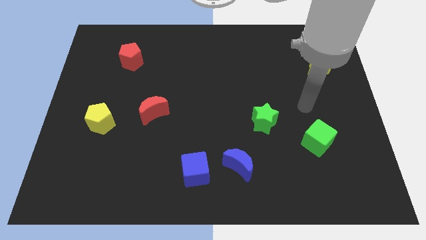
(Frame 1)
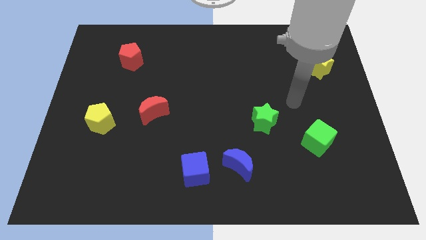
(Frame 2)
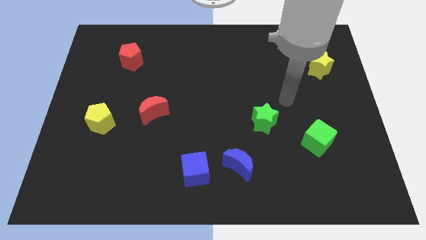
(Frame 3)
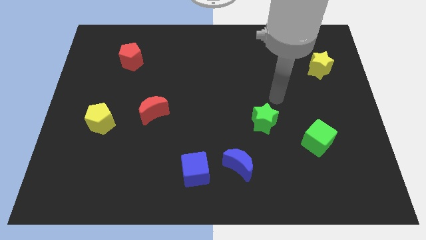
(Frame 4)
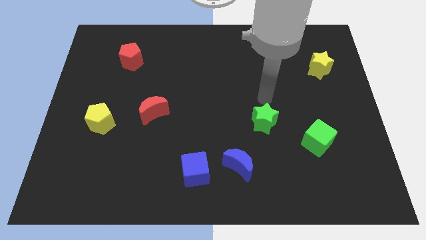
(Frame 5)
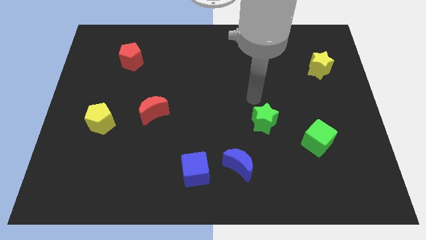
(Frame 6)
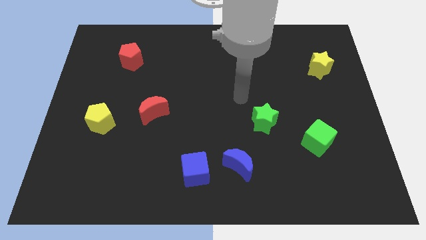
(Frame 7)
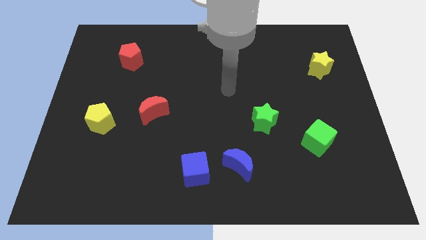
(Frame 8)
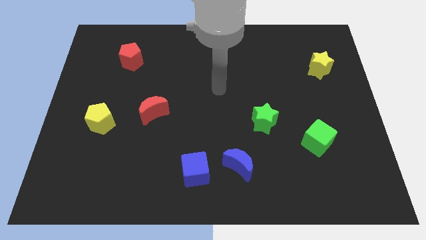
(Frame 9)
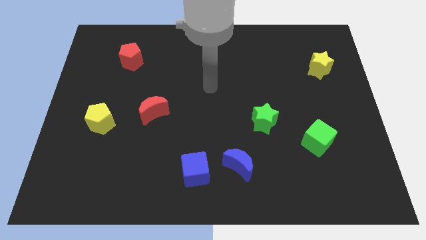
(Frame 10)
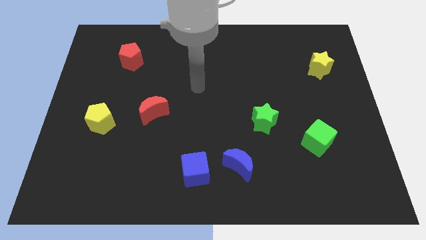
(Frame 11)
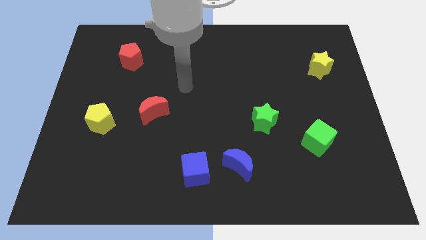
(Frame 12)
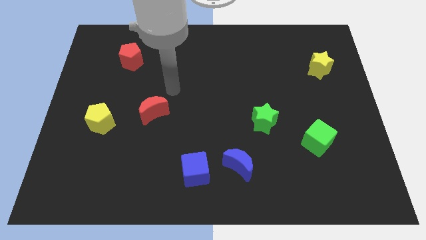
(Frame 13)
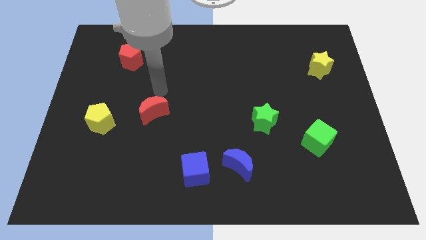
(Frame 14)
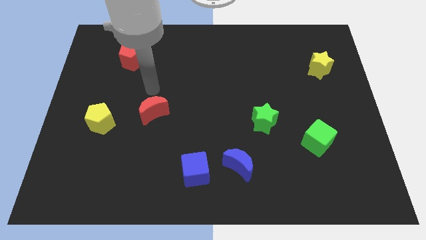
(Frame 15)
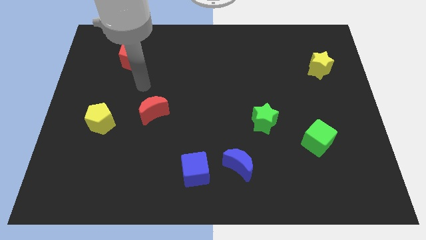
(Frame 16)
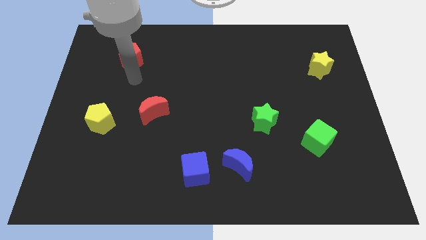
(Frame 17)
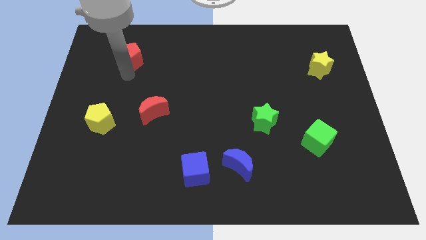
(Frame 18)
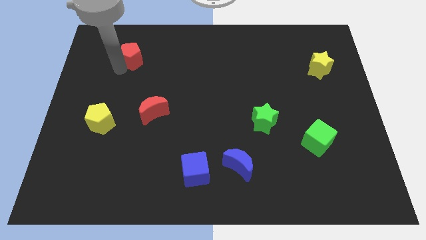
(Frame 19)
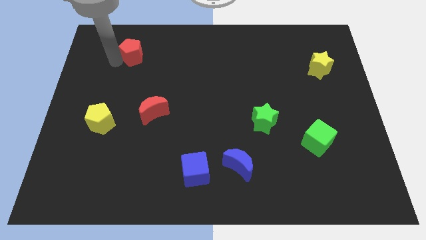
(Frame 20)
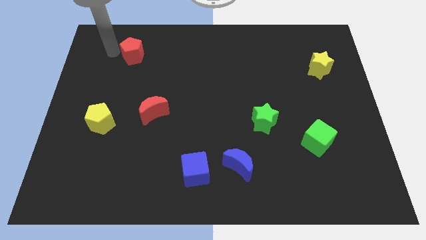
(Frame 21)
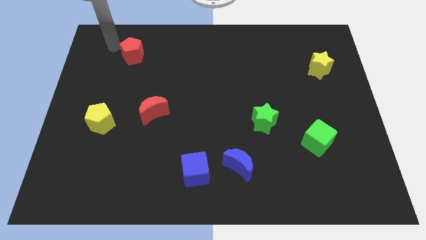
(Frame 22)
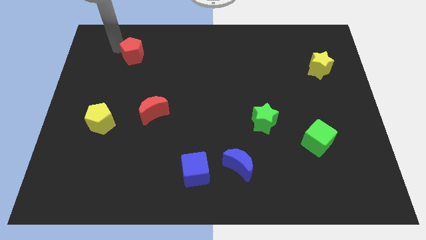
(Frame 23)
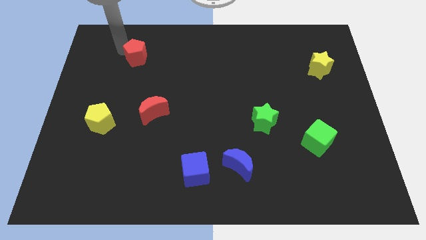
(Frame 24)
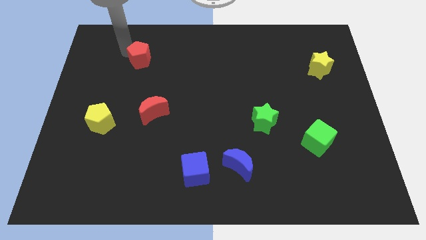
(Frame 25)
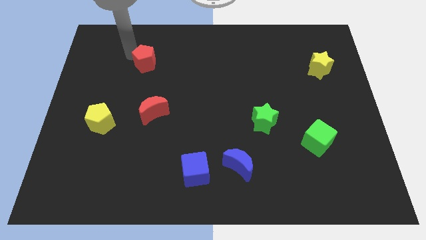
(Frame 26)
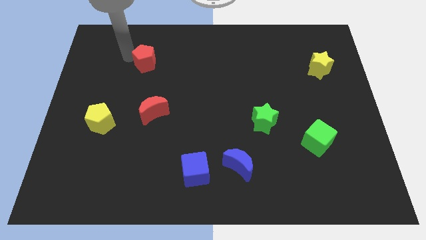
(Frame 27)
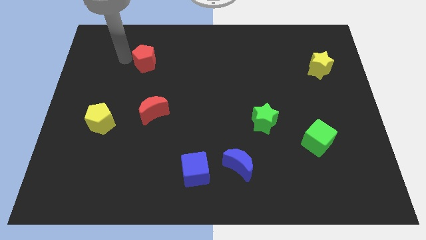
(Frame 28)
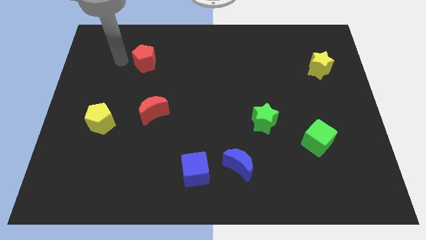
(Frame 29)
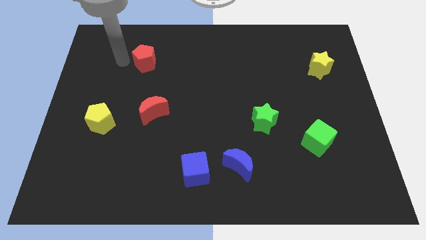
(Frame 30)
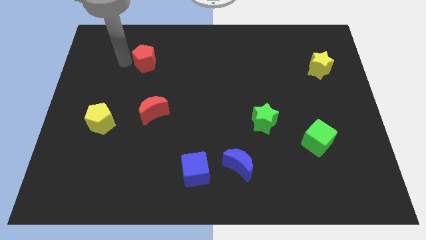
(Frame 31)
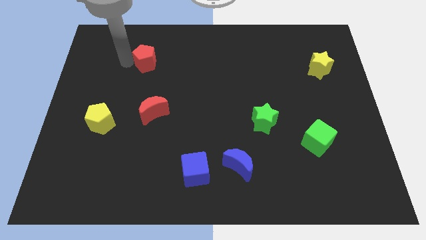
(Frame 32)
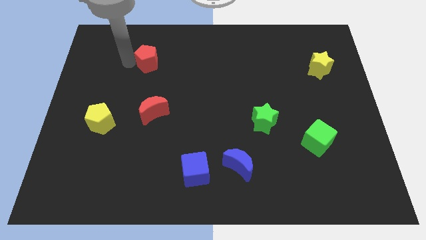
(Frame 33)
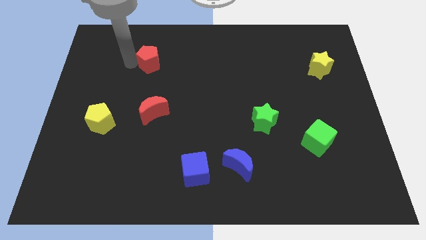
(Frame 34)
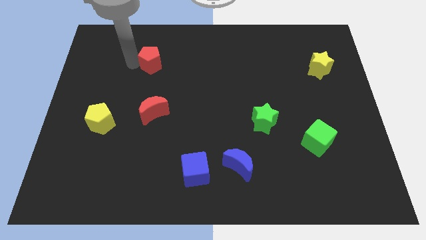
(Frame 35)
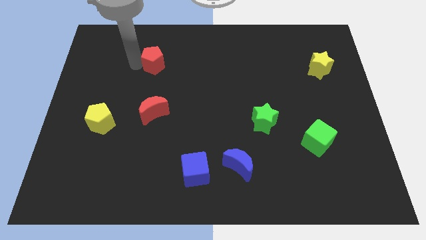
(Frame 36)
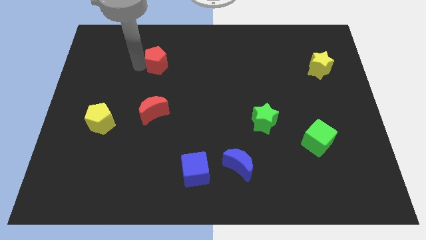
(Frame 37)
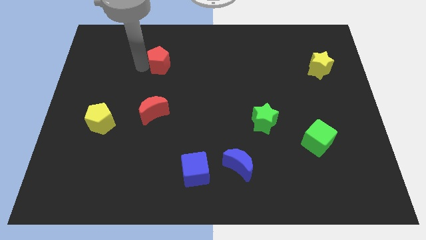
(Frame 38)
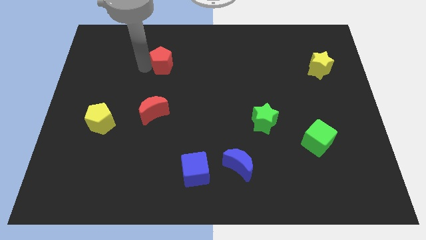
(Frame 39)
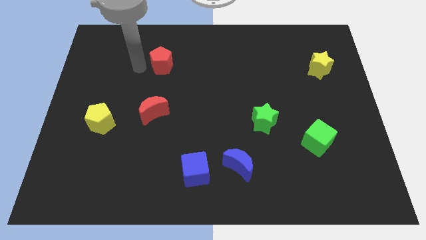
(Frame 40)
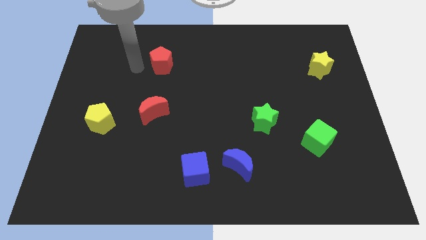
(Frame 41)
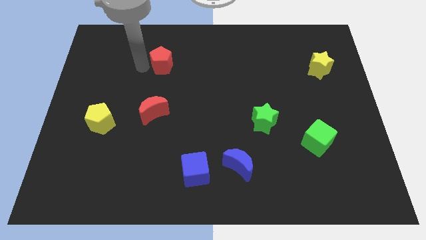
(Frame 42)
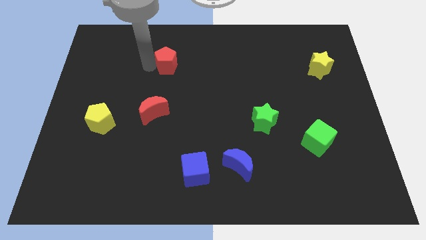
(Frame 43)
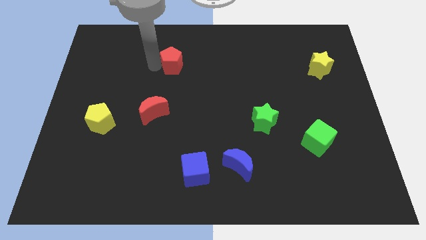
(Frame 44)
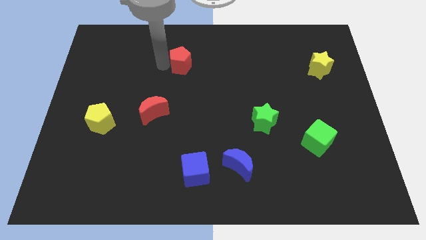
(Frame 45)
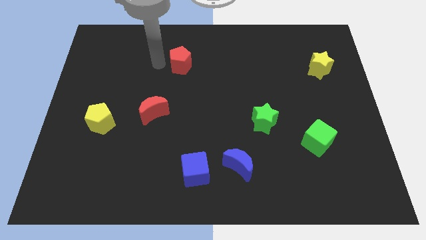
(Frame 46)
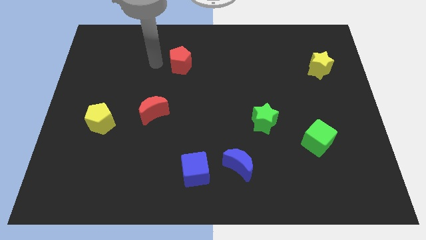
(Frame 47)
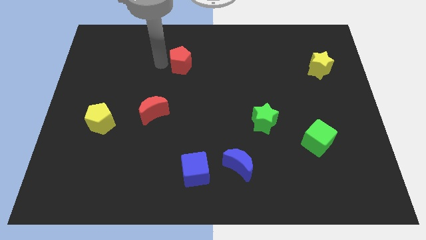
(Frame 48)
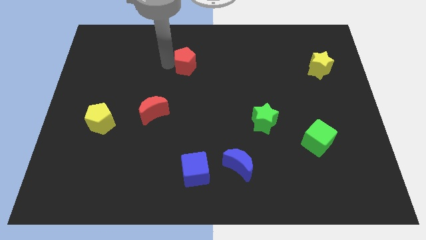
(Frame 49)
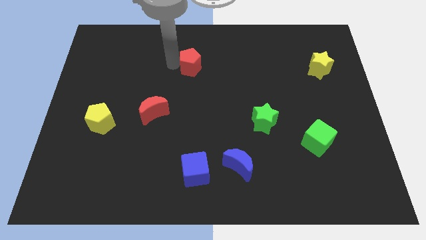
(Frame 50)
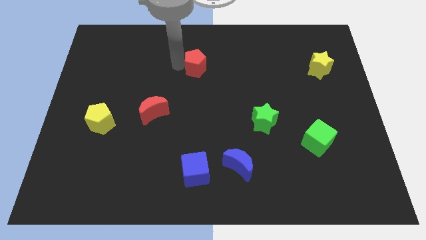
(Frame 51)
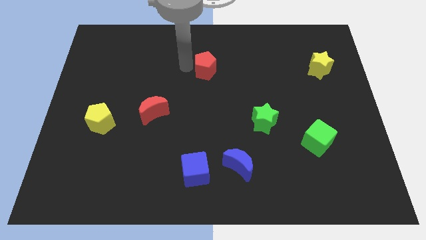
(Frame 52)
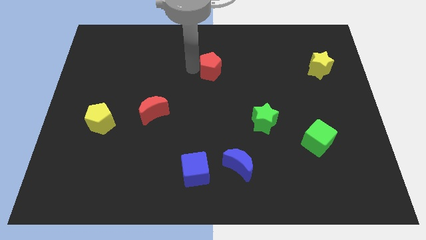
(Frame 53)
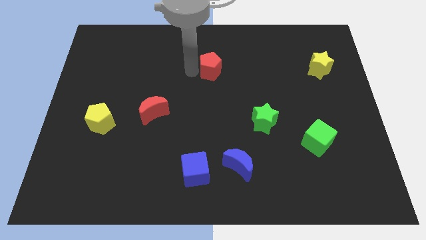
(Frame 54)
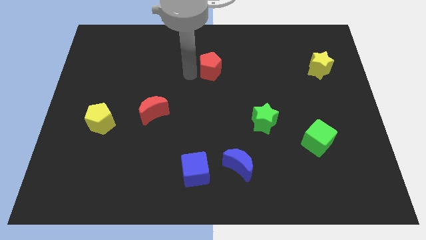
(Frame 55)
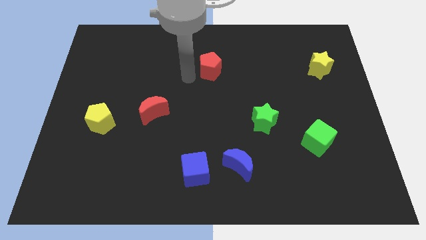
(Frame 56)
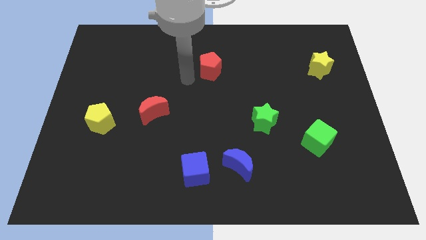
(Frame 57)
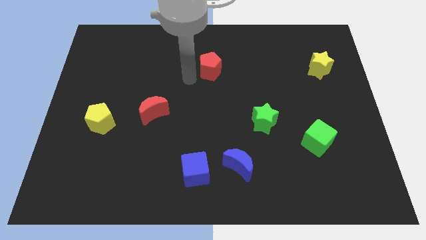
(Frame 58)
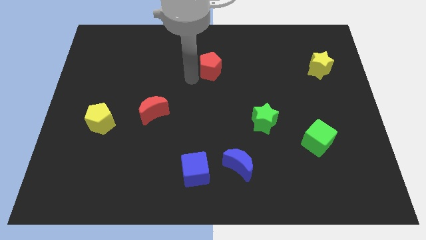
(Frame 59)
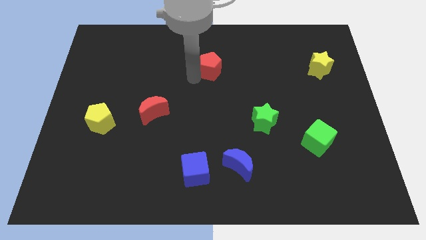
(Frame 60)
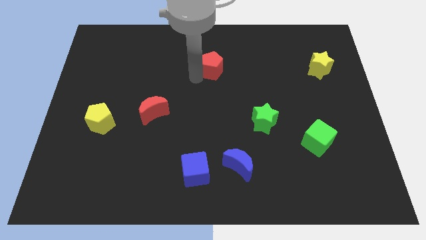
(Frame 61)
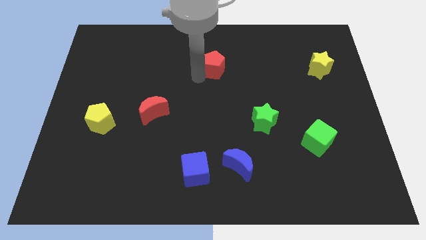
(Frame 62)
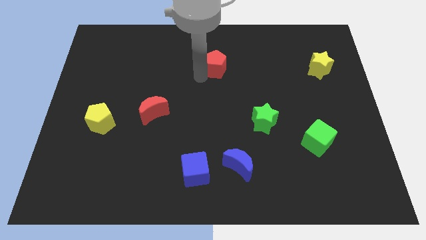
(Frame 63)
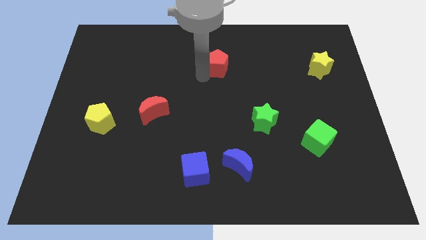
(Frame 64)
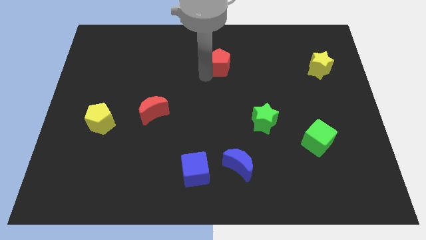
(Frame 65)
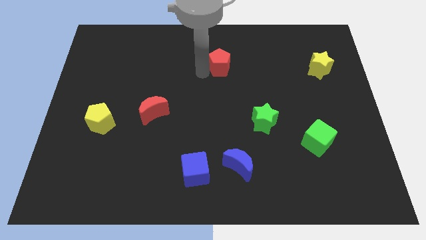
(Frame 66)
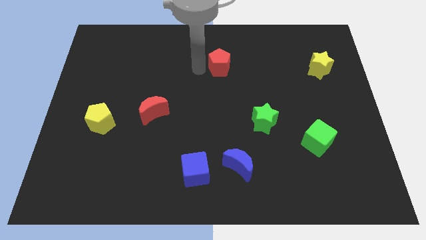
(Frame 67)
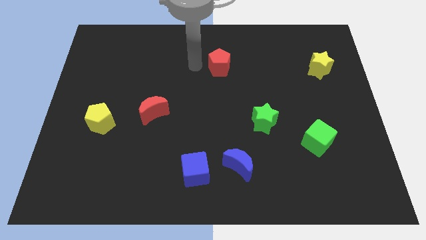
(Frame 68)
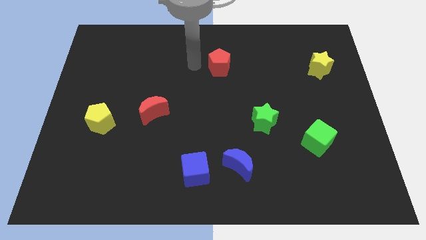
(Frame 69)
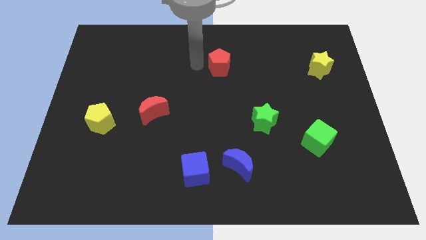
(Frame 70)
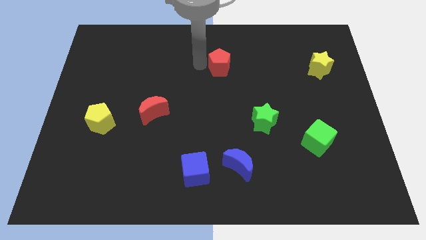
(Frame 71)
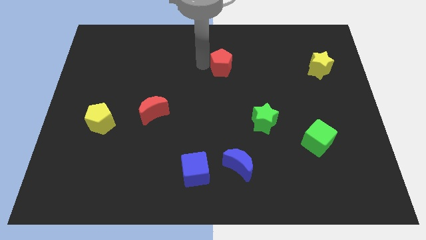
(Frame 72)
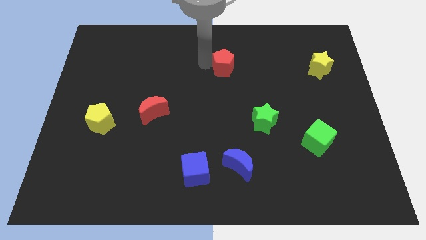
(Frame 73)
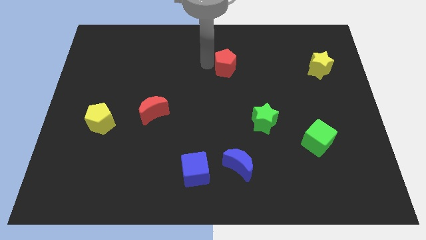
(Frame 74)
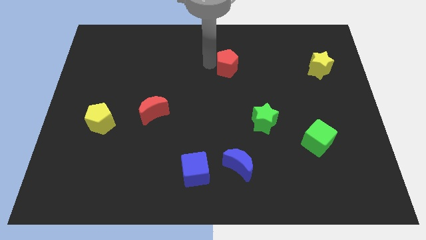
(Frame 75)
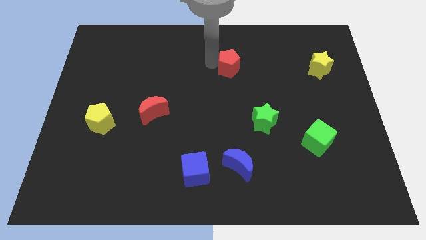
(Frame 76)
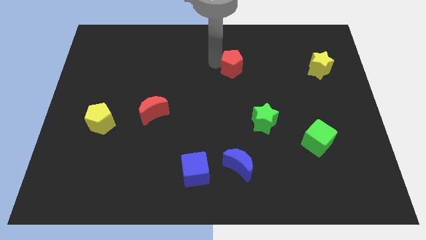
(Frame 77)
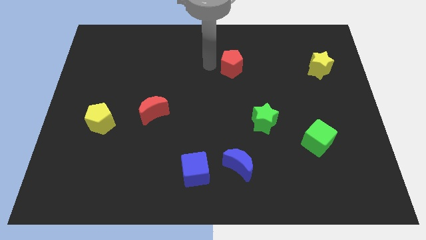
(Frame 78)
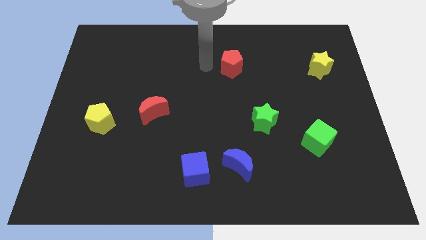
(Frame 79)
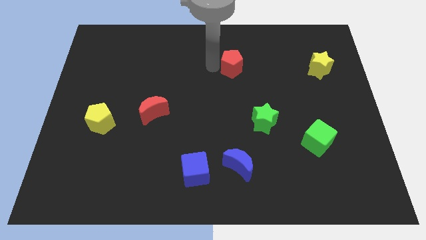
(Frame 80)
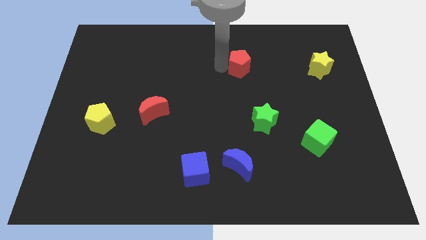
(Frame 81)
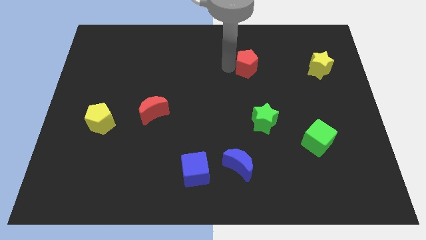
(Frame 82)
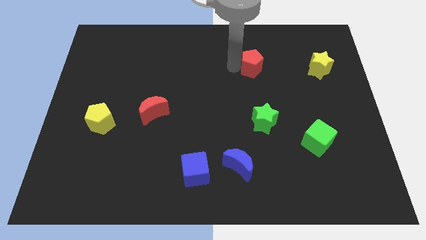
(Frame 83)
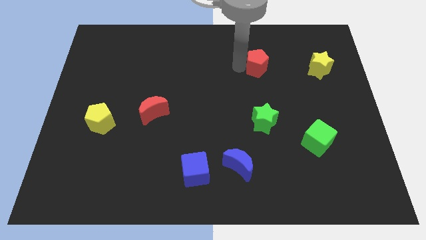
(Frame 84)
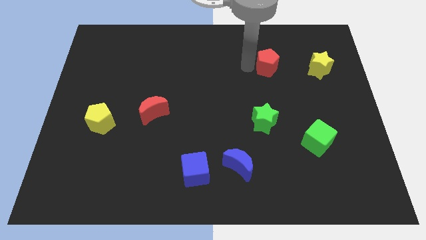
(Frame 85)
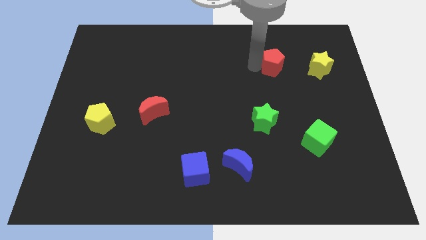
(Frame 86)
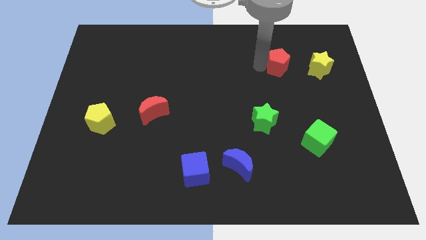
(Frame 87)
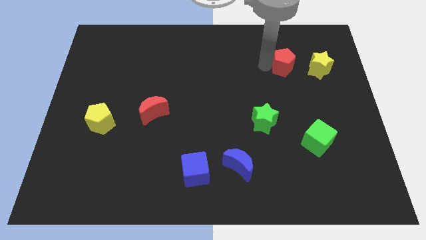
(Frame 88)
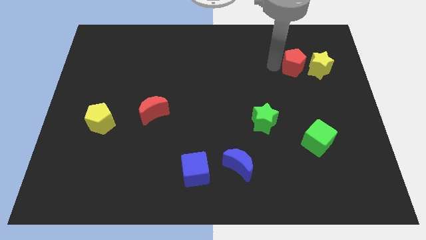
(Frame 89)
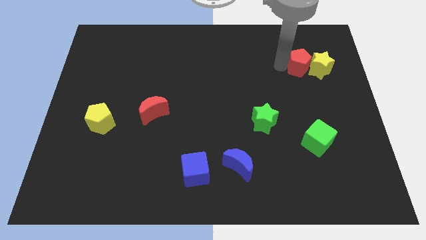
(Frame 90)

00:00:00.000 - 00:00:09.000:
move the red pentagon next to the yellow star
